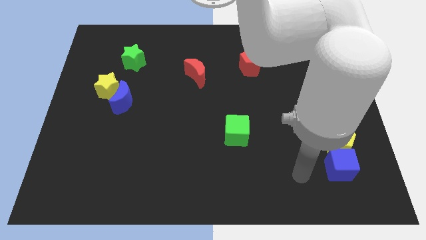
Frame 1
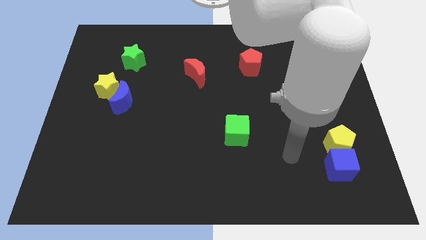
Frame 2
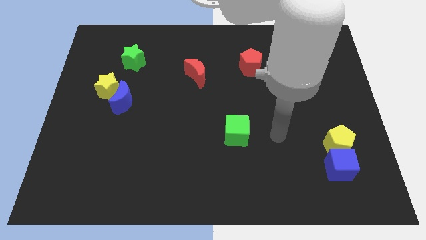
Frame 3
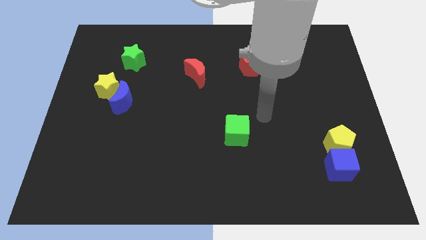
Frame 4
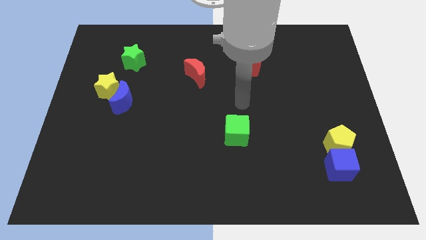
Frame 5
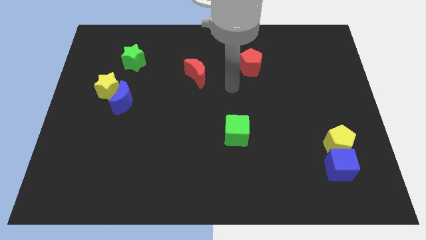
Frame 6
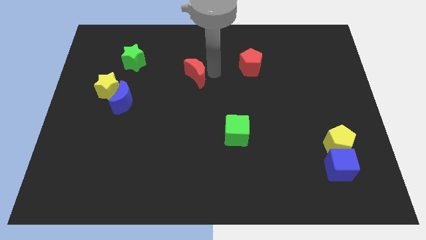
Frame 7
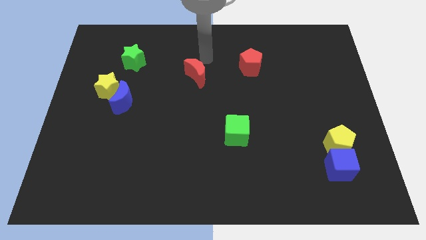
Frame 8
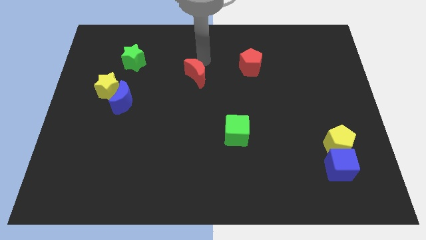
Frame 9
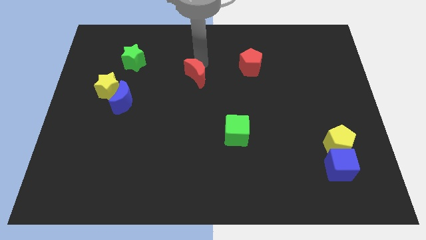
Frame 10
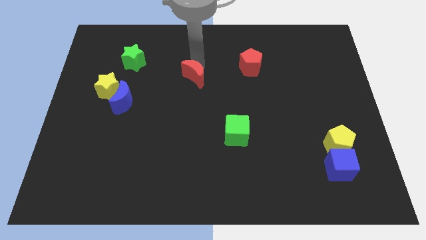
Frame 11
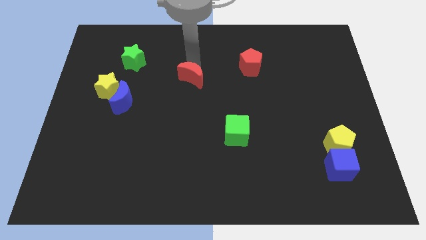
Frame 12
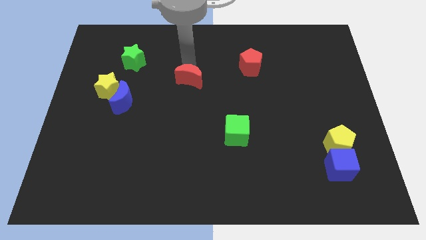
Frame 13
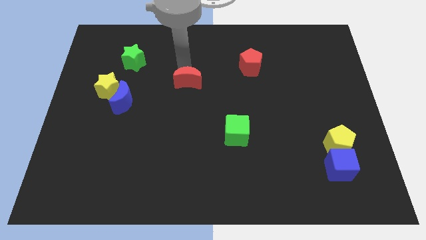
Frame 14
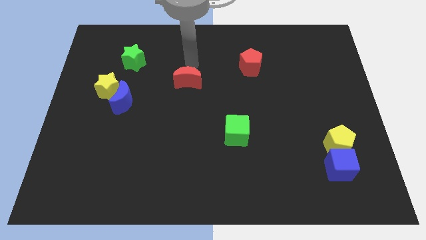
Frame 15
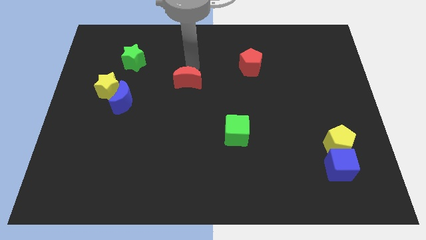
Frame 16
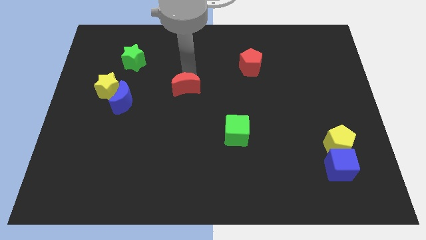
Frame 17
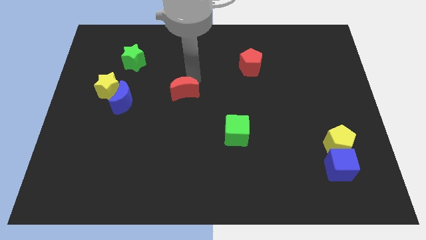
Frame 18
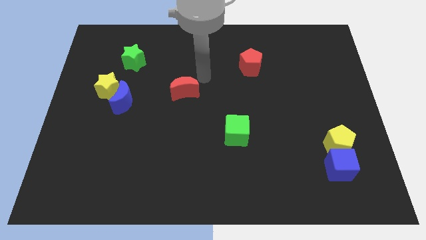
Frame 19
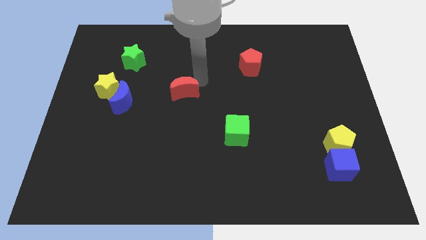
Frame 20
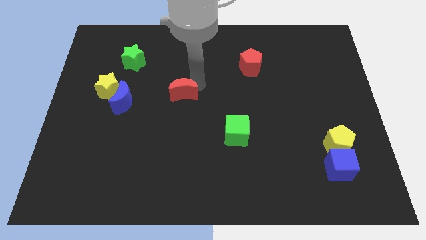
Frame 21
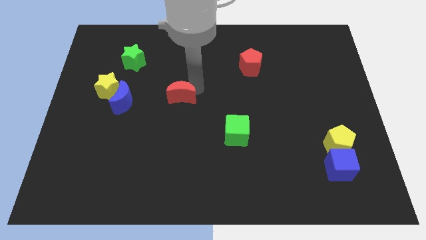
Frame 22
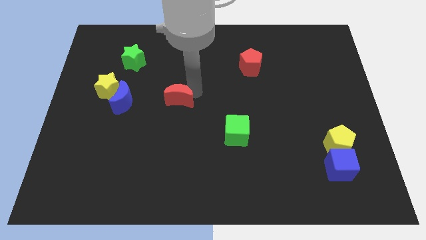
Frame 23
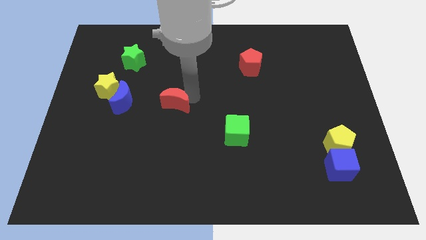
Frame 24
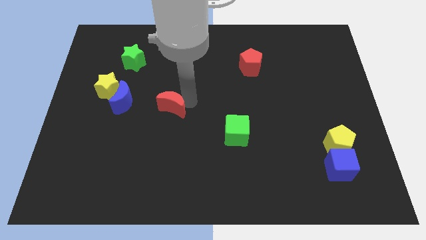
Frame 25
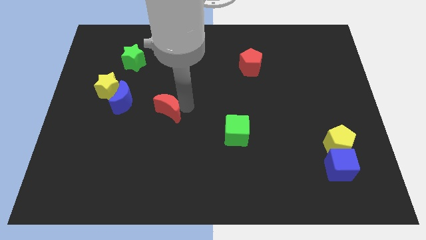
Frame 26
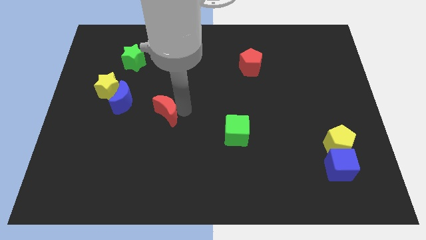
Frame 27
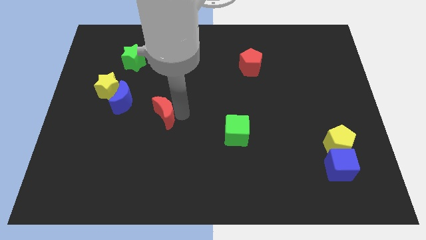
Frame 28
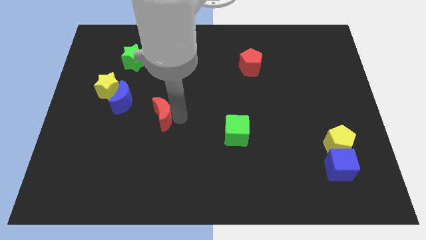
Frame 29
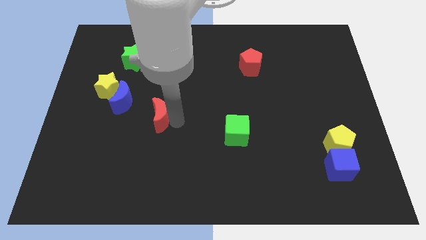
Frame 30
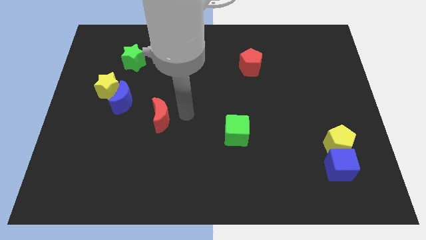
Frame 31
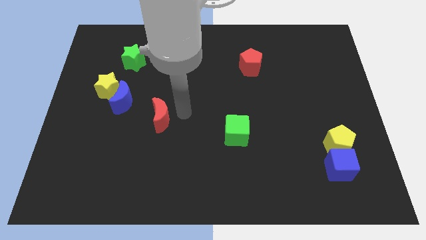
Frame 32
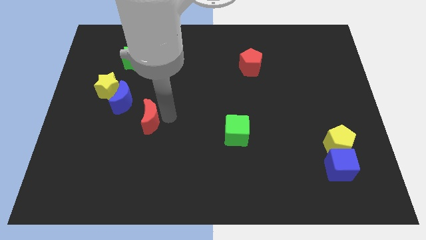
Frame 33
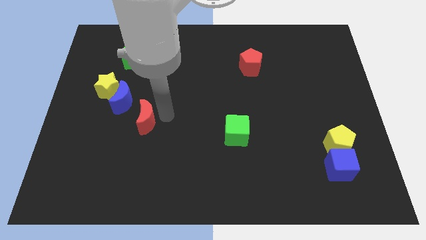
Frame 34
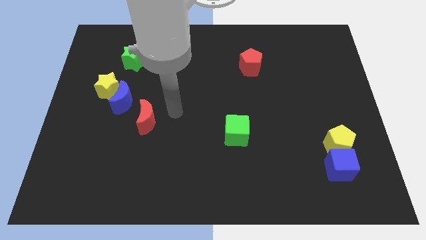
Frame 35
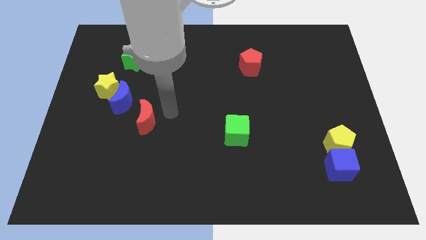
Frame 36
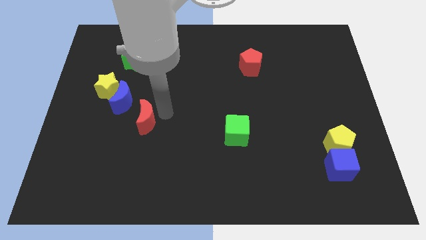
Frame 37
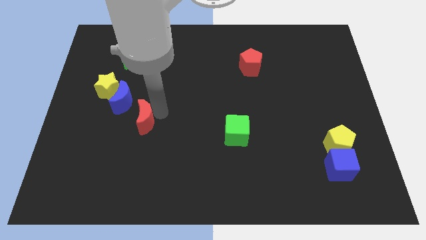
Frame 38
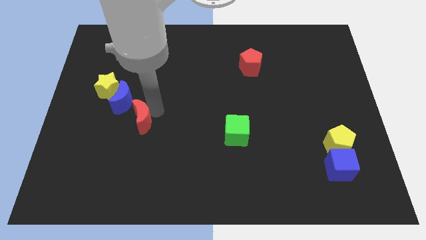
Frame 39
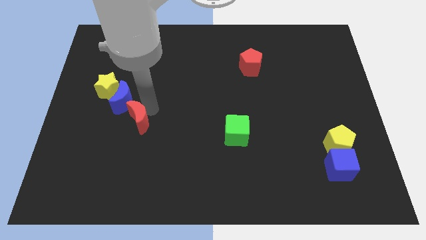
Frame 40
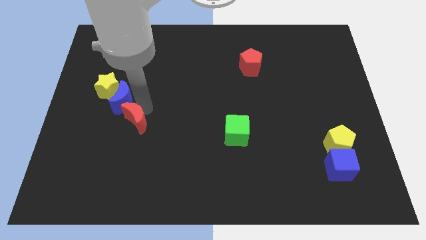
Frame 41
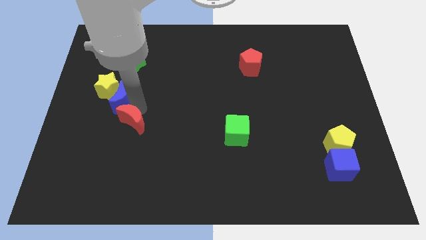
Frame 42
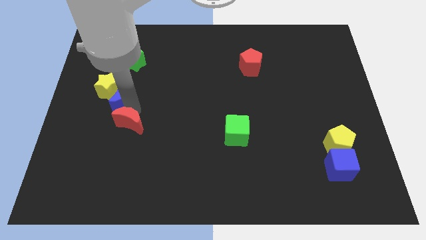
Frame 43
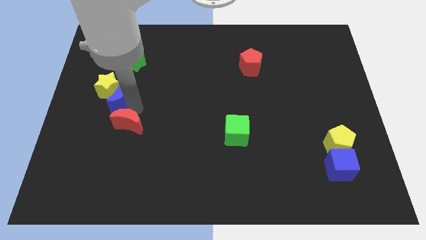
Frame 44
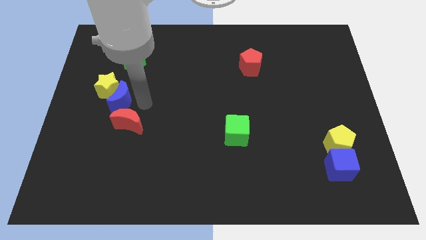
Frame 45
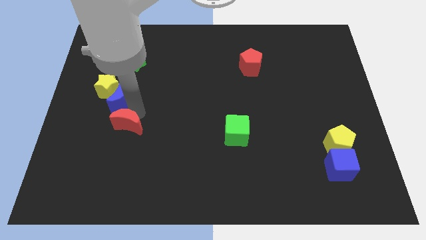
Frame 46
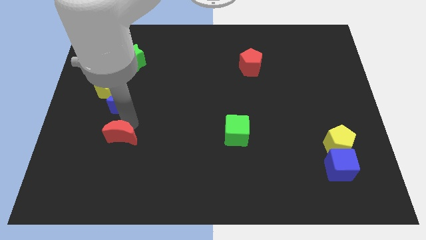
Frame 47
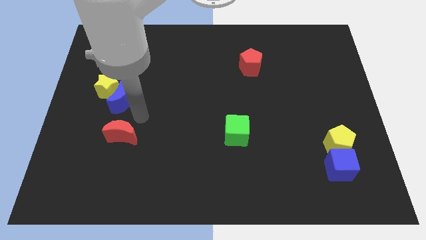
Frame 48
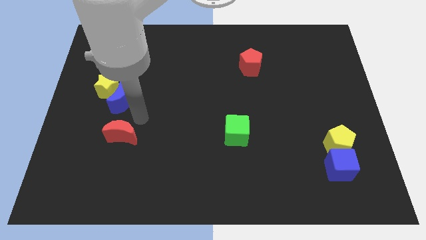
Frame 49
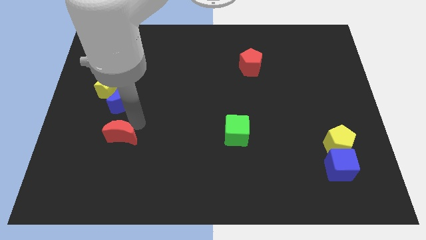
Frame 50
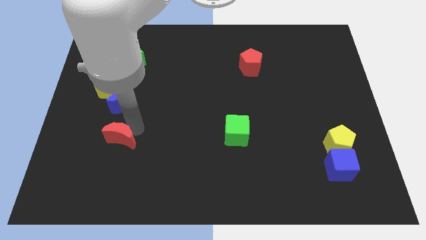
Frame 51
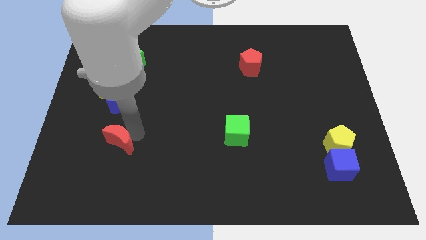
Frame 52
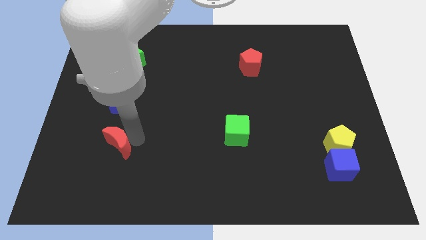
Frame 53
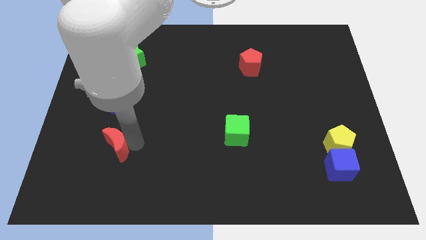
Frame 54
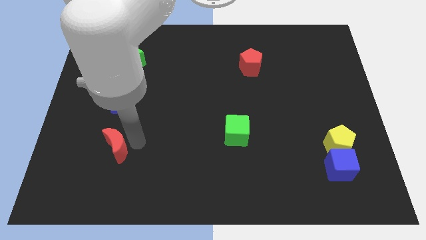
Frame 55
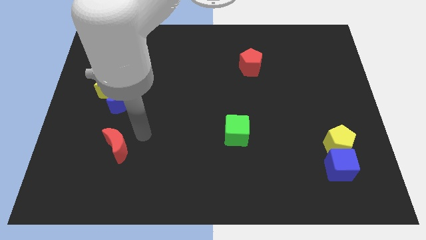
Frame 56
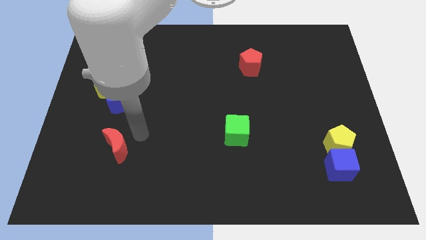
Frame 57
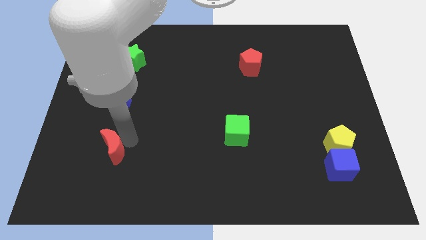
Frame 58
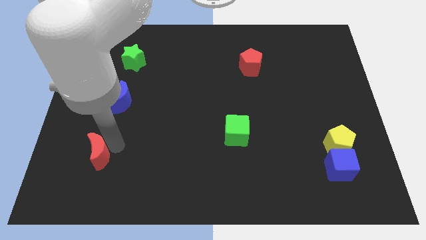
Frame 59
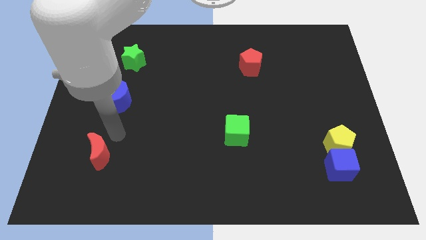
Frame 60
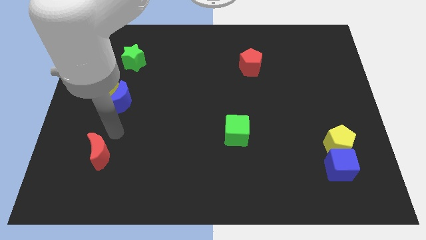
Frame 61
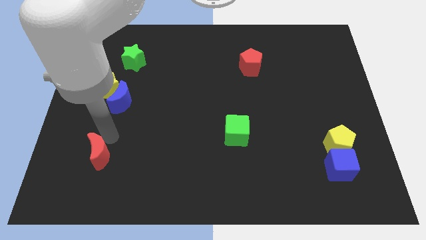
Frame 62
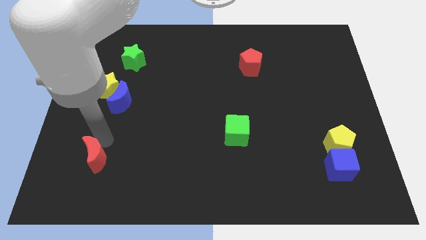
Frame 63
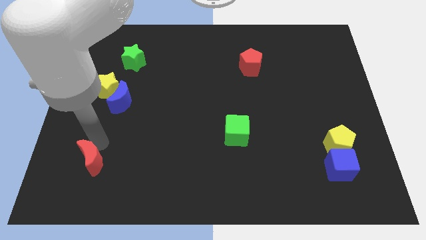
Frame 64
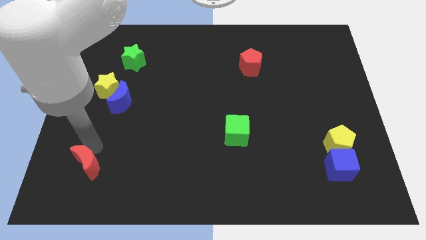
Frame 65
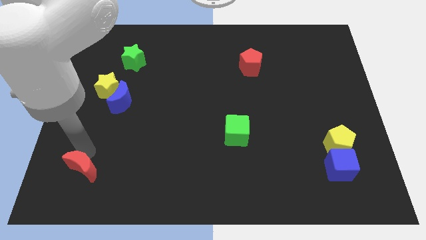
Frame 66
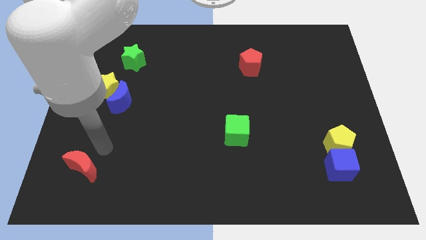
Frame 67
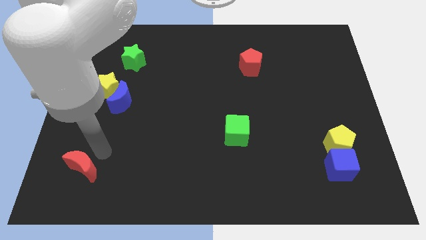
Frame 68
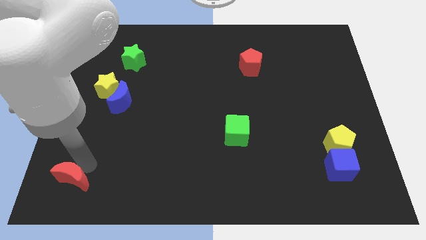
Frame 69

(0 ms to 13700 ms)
slide the red moon to the bottom left of the board
